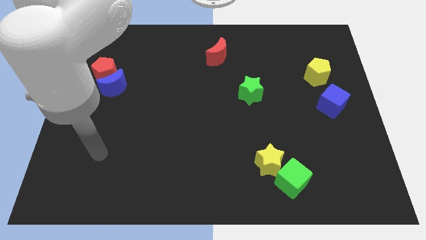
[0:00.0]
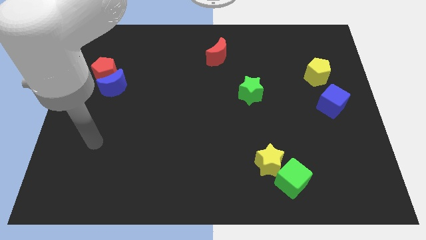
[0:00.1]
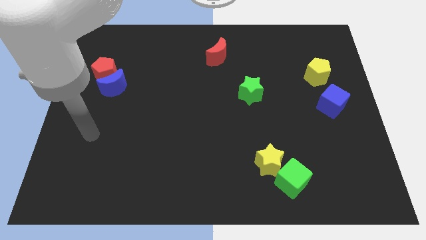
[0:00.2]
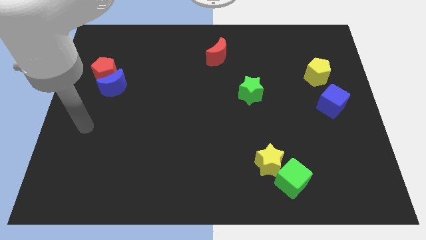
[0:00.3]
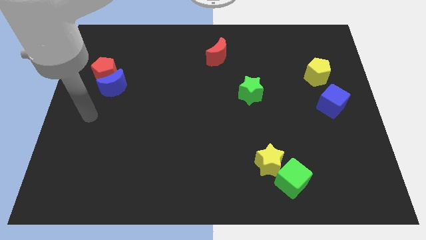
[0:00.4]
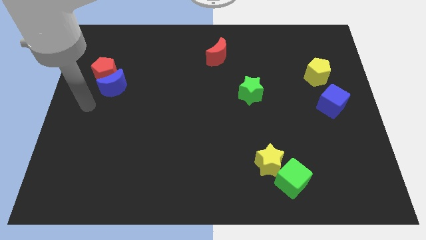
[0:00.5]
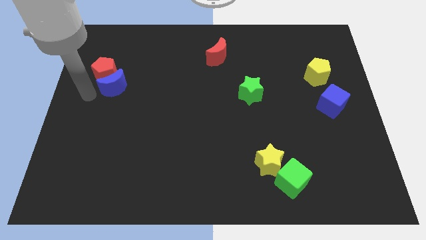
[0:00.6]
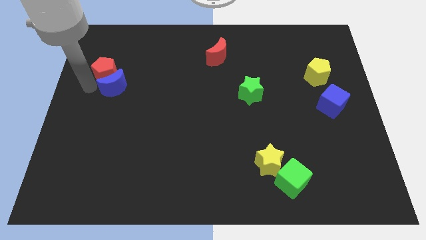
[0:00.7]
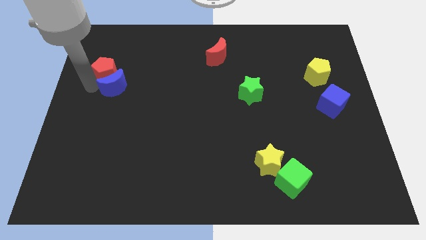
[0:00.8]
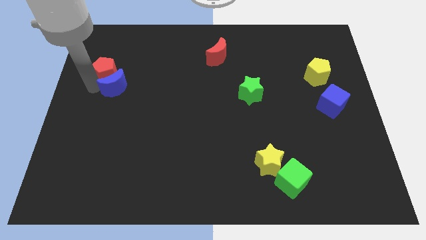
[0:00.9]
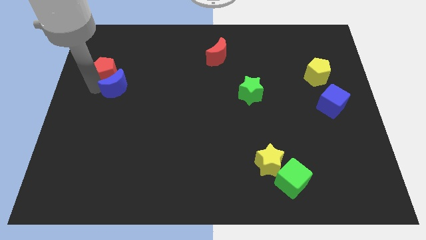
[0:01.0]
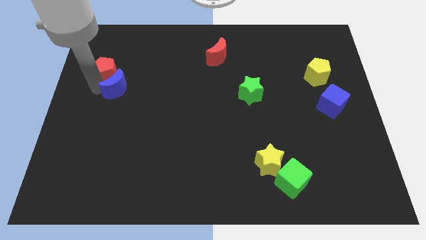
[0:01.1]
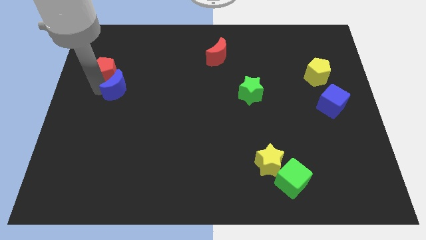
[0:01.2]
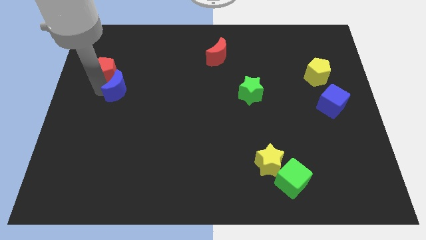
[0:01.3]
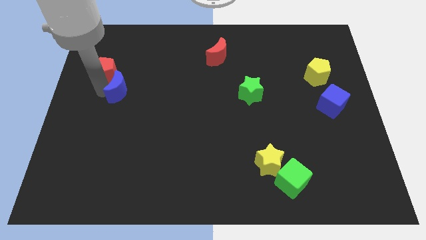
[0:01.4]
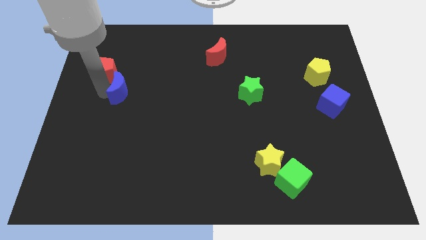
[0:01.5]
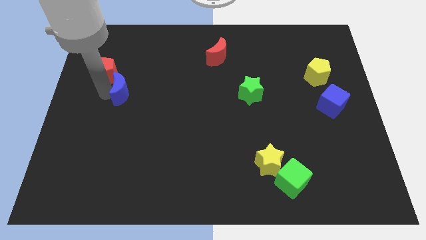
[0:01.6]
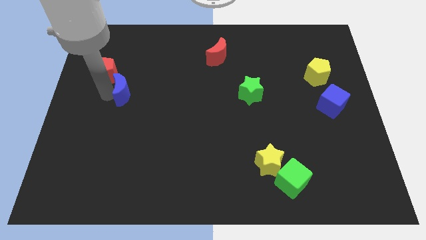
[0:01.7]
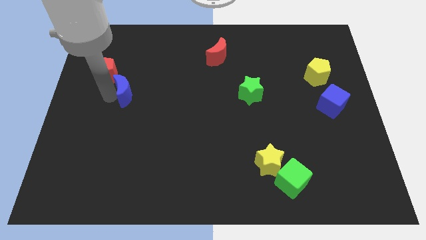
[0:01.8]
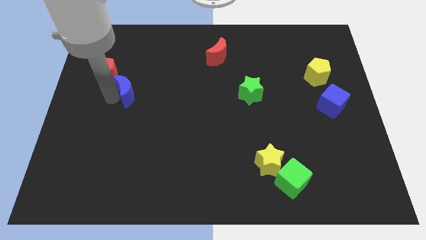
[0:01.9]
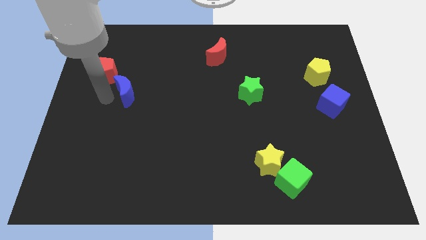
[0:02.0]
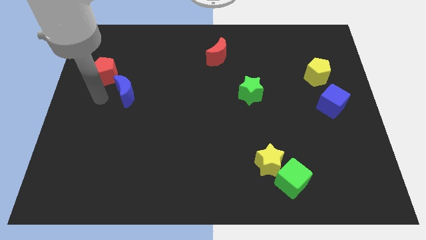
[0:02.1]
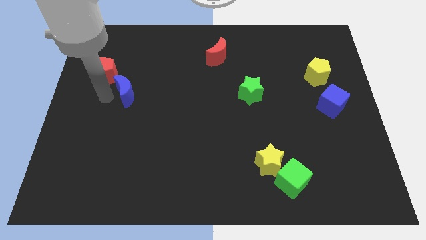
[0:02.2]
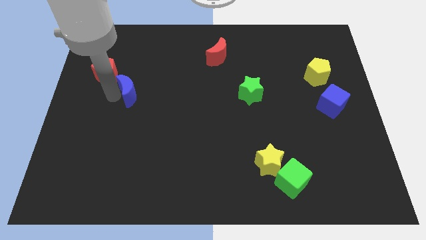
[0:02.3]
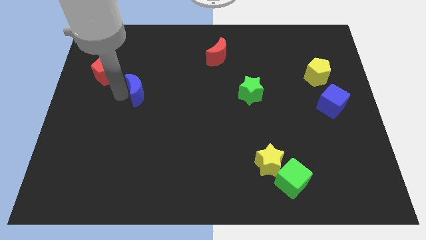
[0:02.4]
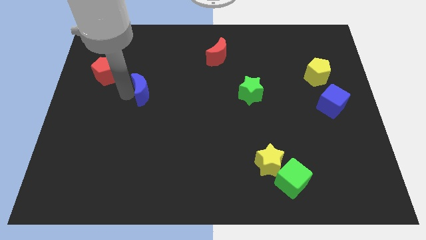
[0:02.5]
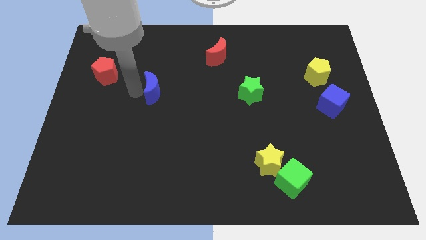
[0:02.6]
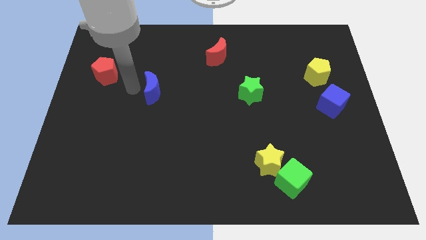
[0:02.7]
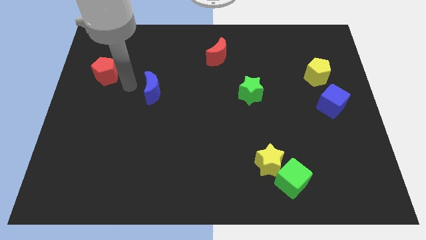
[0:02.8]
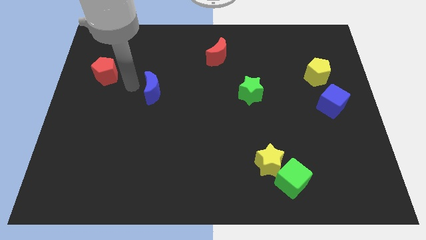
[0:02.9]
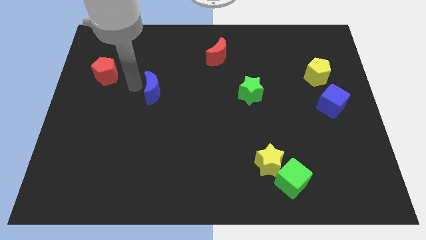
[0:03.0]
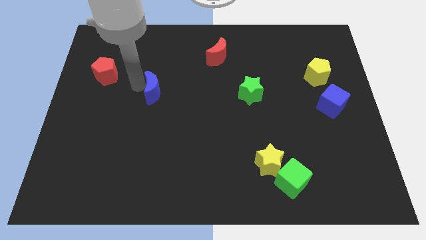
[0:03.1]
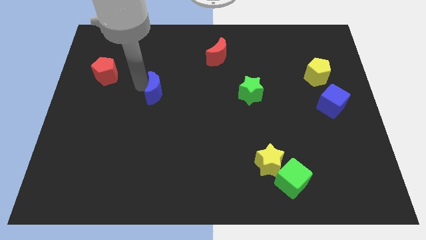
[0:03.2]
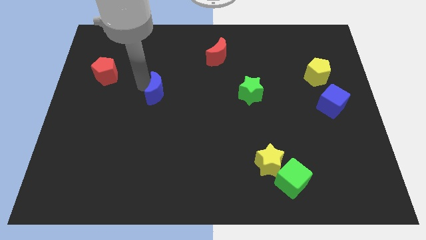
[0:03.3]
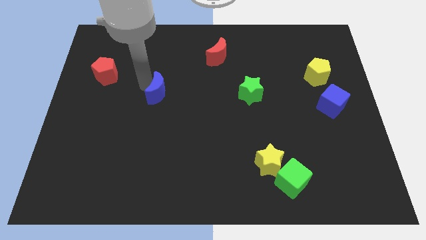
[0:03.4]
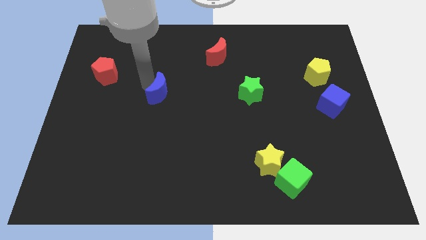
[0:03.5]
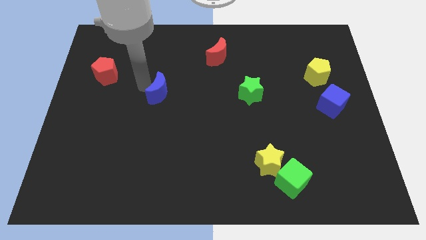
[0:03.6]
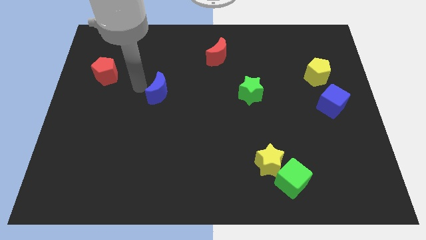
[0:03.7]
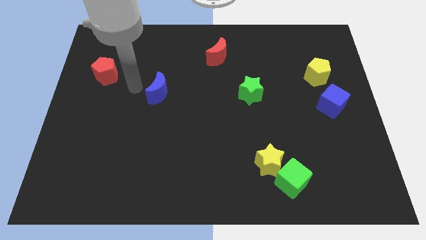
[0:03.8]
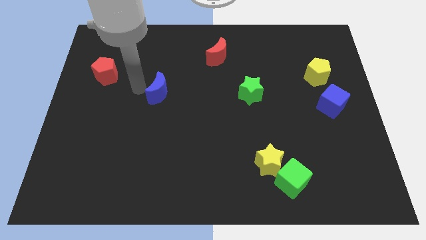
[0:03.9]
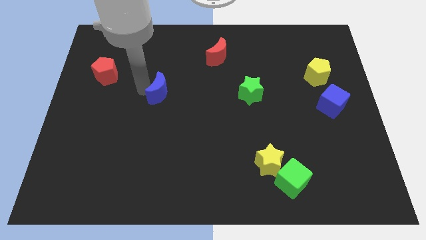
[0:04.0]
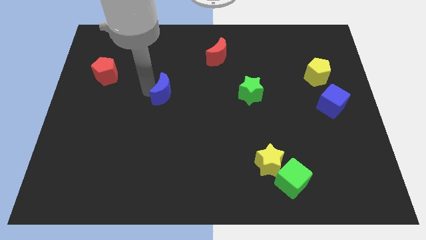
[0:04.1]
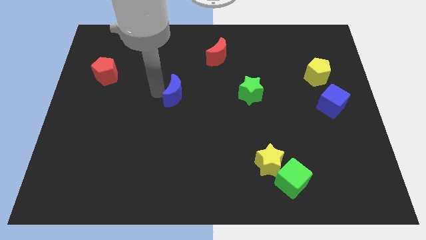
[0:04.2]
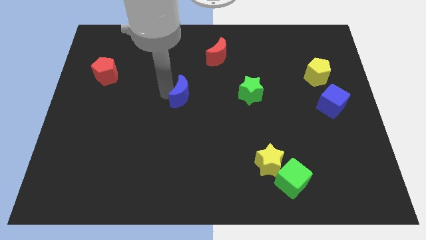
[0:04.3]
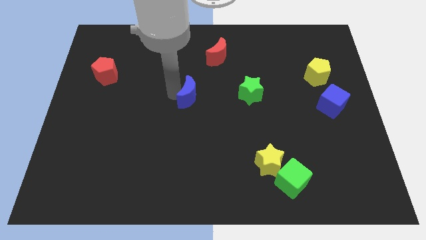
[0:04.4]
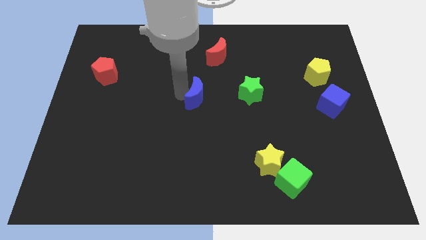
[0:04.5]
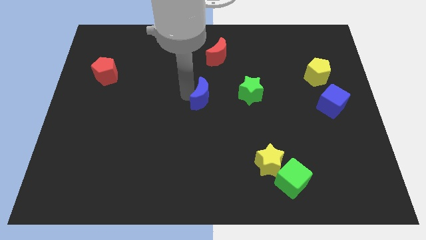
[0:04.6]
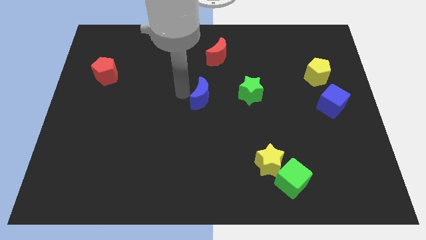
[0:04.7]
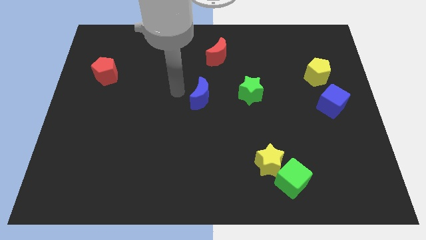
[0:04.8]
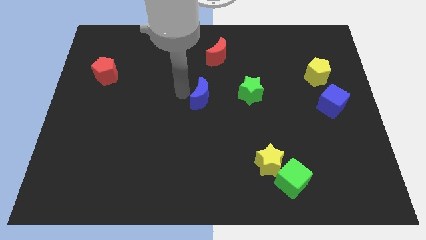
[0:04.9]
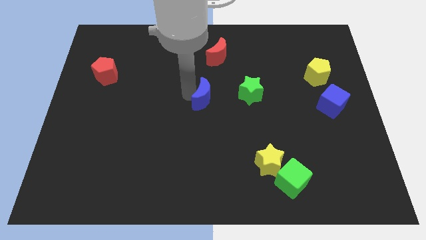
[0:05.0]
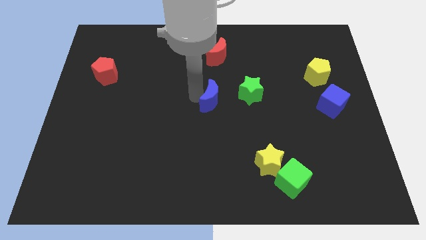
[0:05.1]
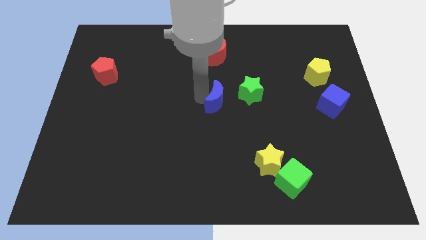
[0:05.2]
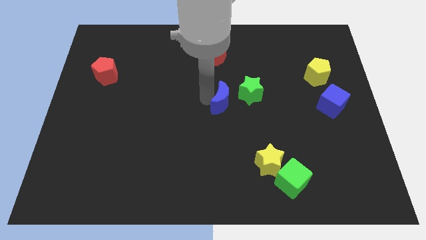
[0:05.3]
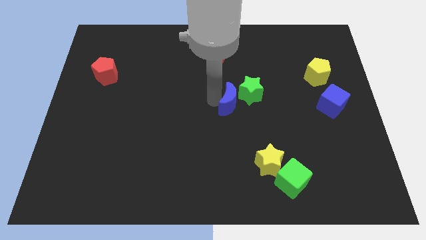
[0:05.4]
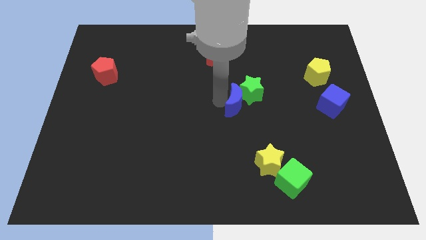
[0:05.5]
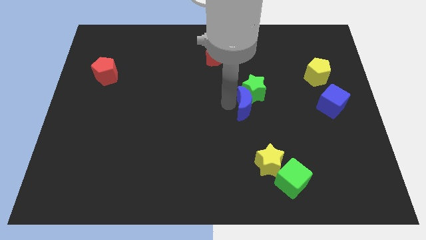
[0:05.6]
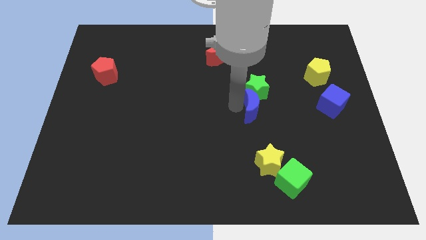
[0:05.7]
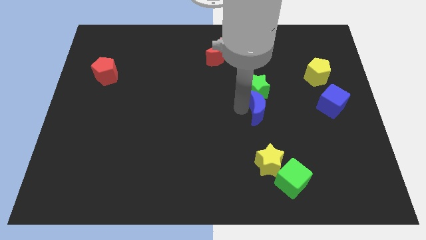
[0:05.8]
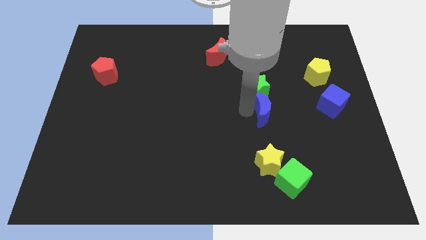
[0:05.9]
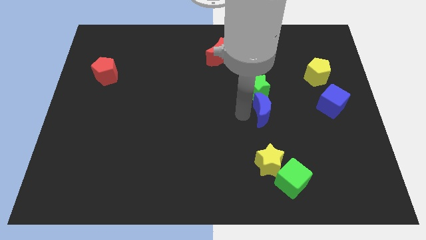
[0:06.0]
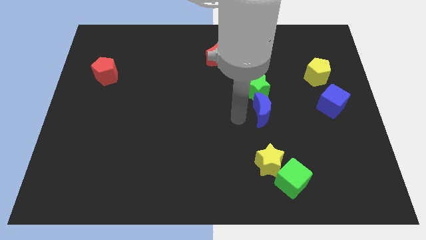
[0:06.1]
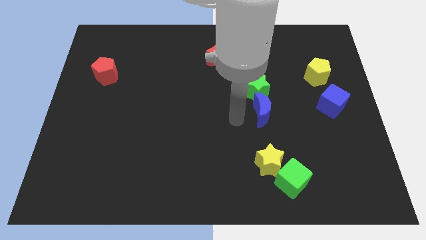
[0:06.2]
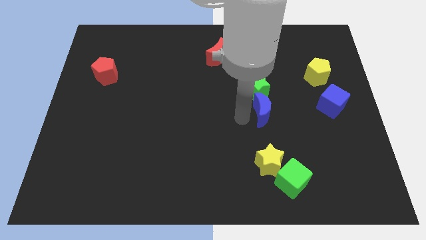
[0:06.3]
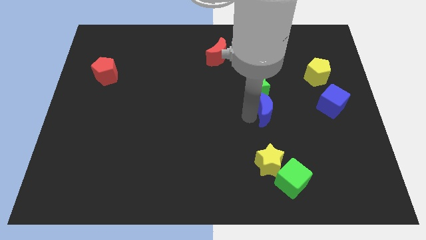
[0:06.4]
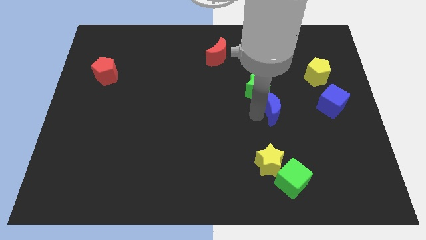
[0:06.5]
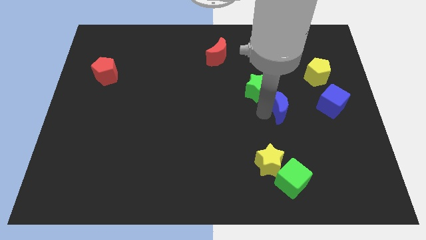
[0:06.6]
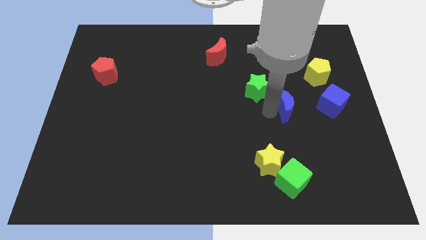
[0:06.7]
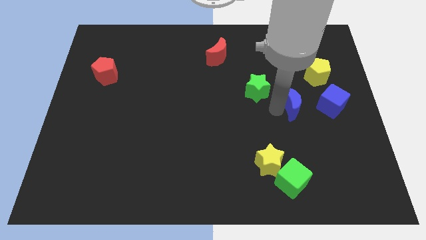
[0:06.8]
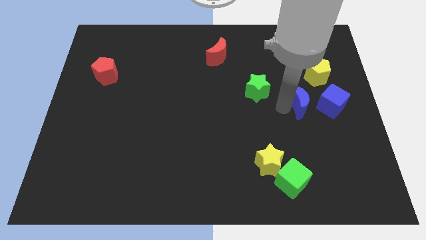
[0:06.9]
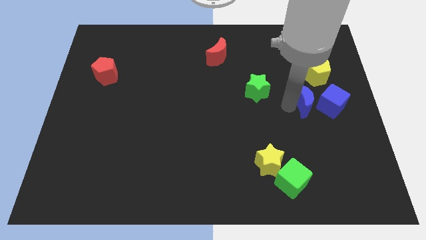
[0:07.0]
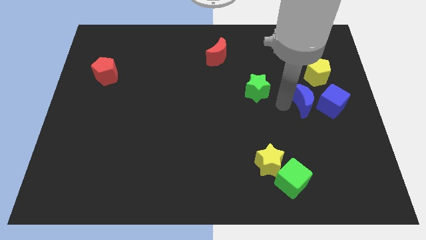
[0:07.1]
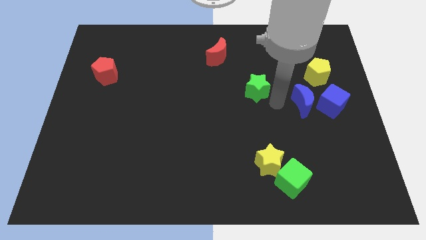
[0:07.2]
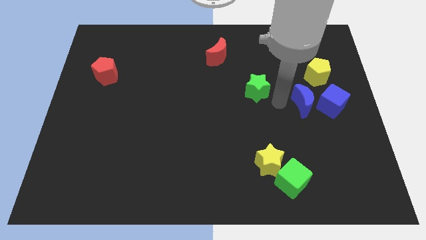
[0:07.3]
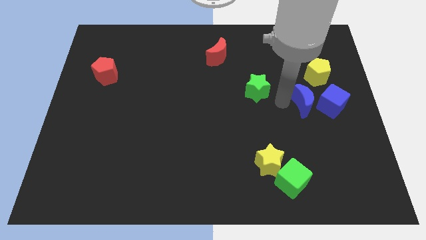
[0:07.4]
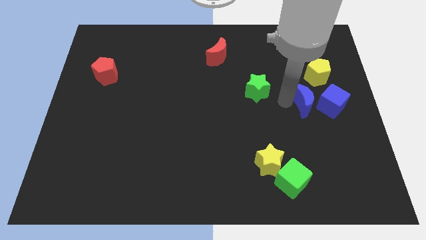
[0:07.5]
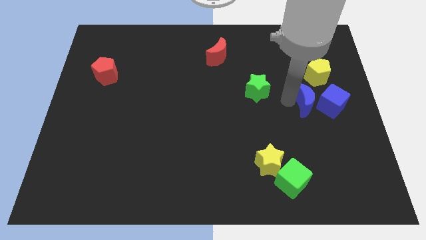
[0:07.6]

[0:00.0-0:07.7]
slide the blue moon close to the blue cube
